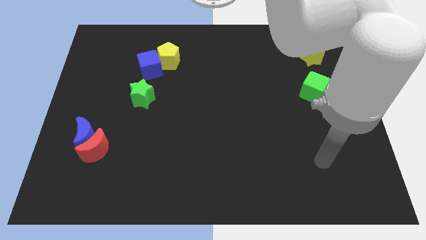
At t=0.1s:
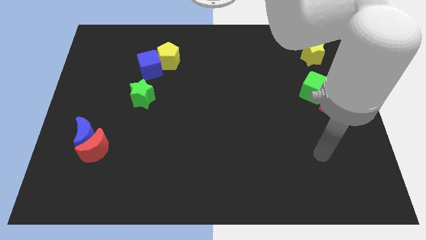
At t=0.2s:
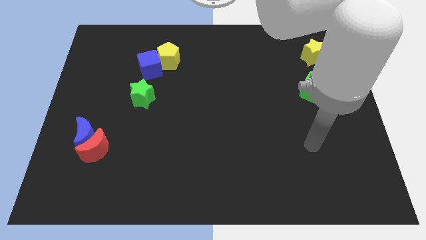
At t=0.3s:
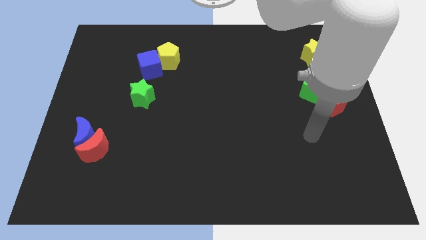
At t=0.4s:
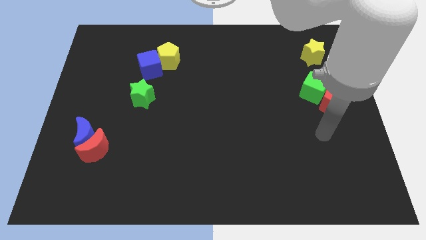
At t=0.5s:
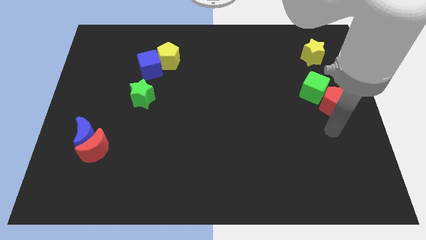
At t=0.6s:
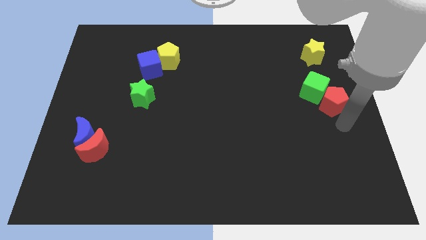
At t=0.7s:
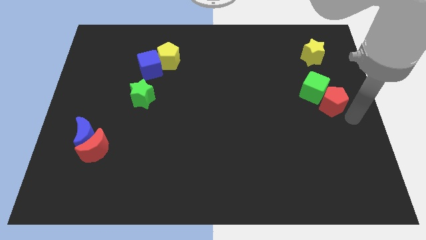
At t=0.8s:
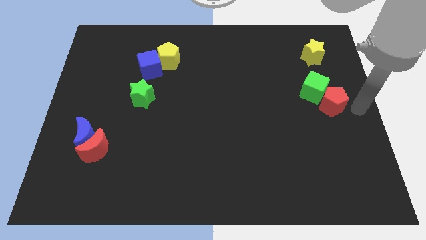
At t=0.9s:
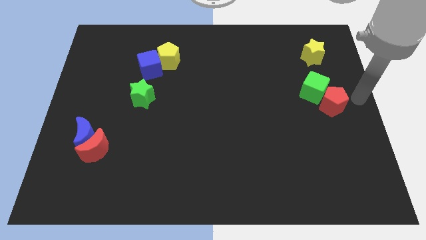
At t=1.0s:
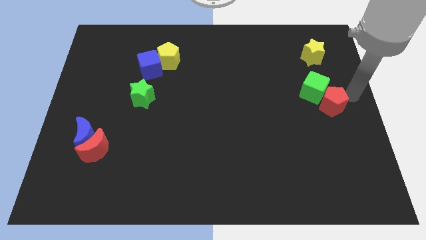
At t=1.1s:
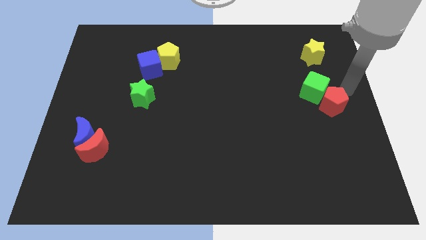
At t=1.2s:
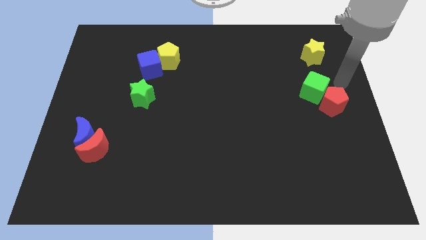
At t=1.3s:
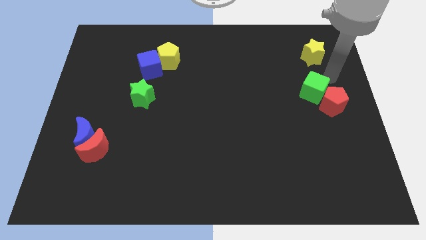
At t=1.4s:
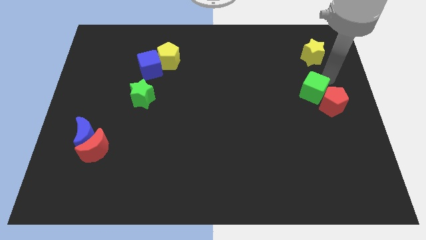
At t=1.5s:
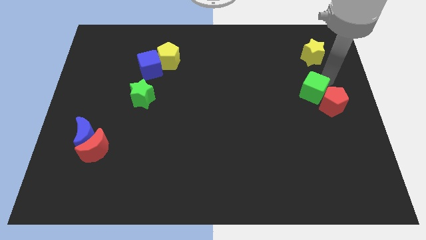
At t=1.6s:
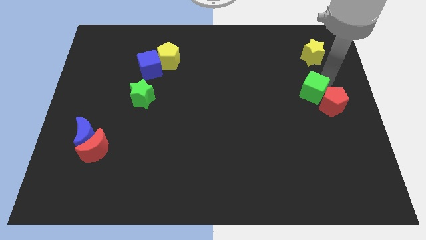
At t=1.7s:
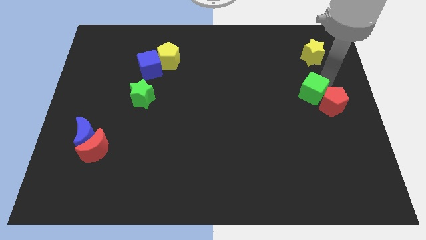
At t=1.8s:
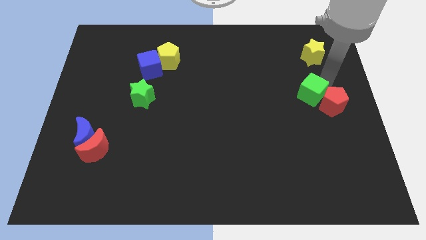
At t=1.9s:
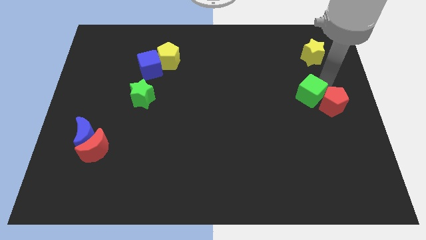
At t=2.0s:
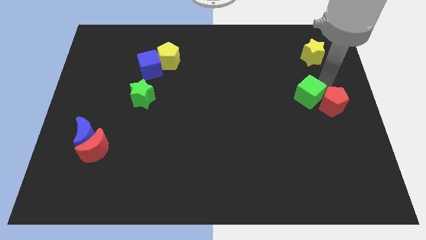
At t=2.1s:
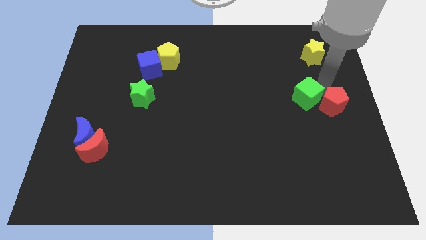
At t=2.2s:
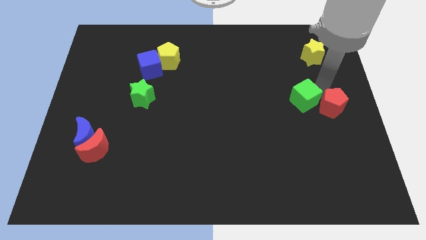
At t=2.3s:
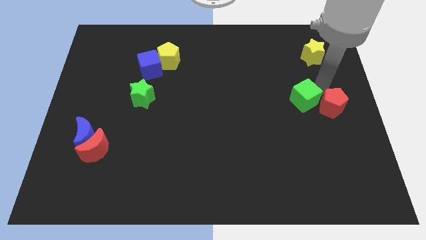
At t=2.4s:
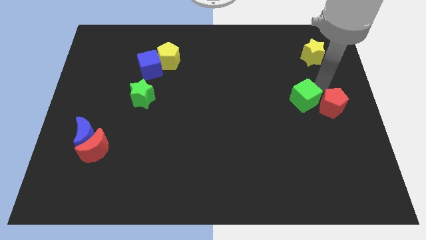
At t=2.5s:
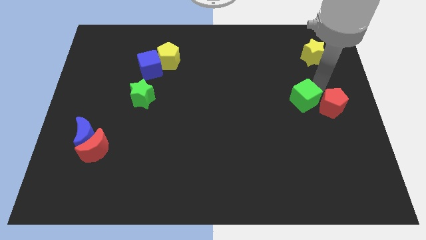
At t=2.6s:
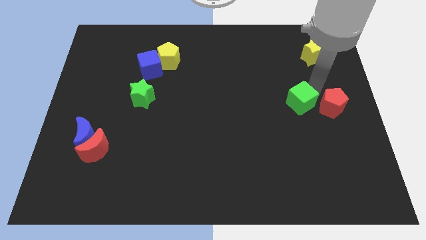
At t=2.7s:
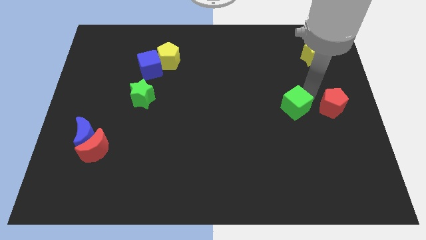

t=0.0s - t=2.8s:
slide the green cube diagonally down and left a bit

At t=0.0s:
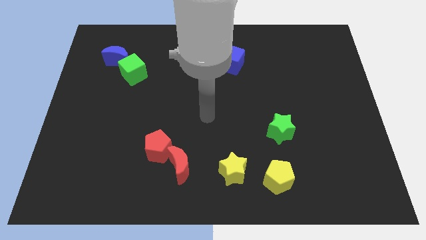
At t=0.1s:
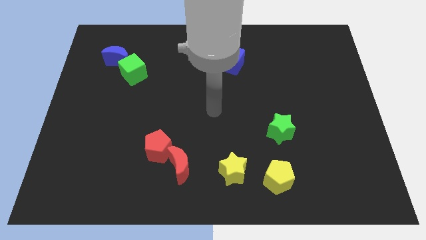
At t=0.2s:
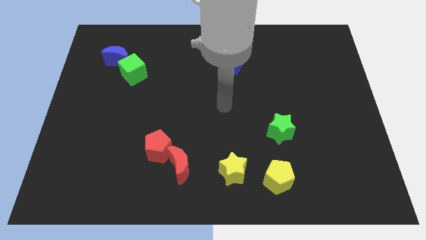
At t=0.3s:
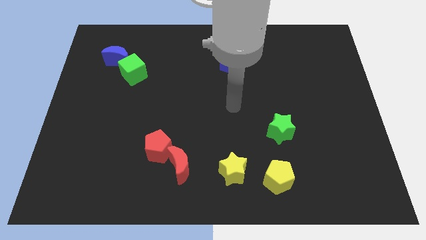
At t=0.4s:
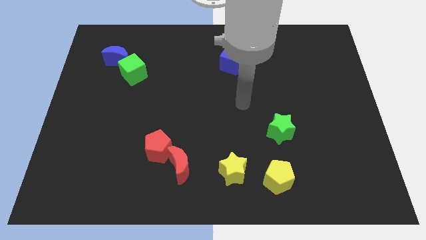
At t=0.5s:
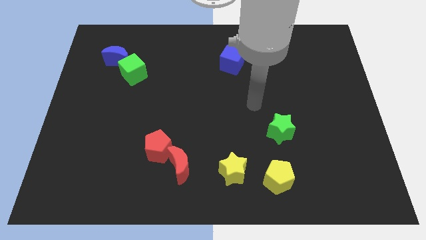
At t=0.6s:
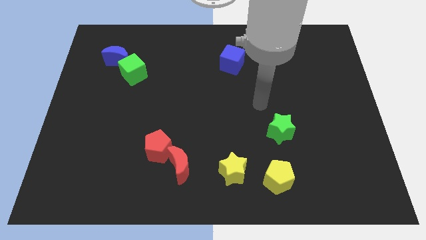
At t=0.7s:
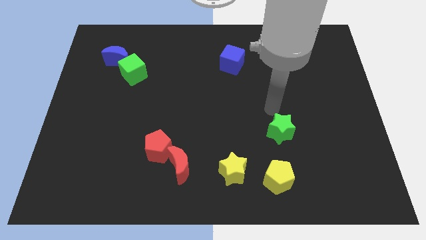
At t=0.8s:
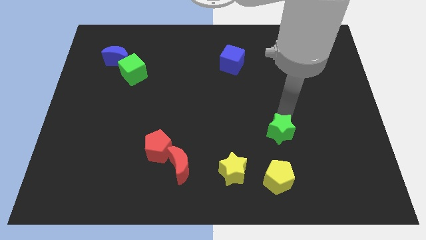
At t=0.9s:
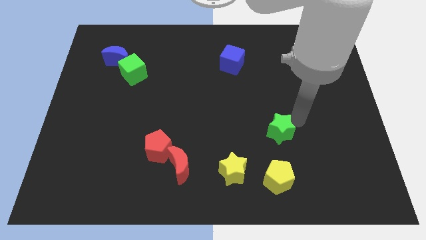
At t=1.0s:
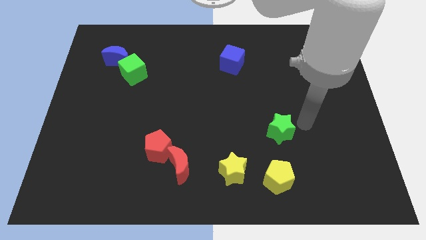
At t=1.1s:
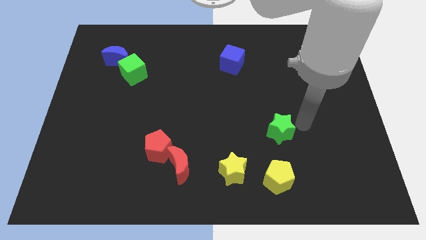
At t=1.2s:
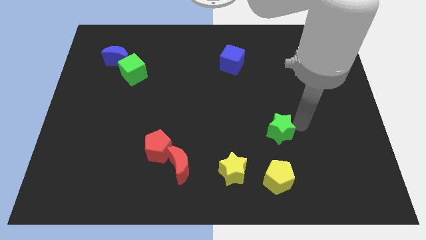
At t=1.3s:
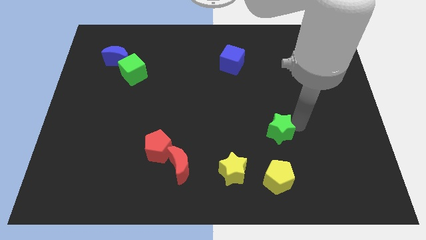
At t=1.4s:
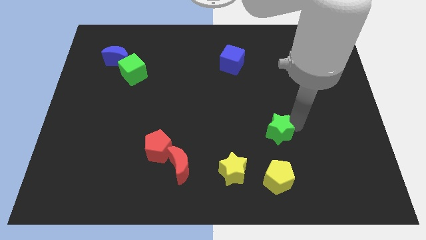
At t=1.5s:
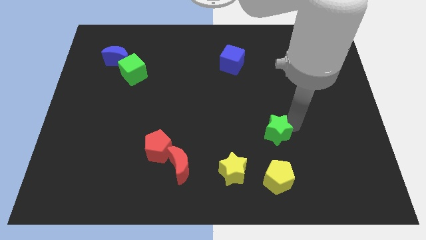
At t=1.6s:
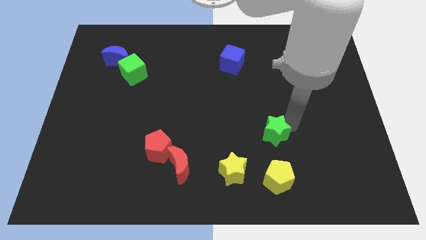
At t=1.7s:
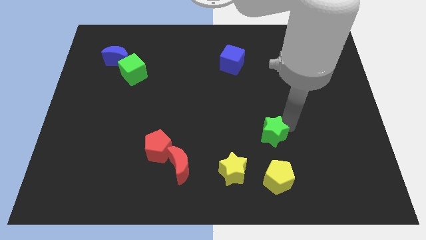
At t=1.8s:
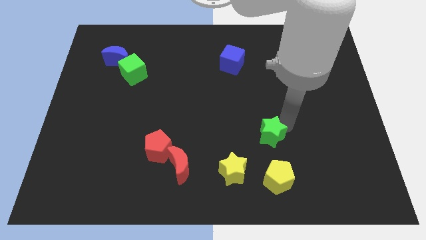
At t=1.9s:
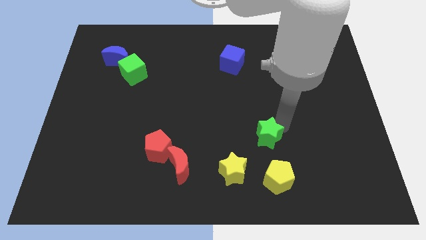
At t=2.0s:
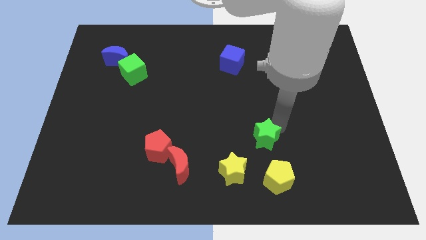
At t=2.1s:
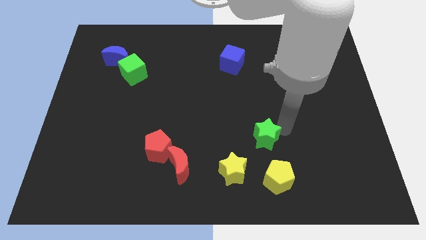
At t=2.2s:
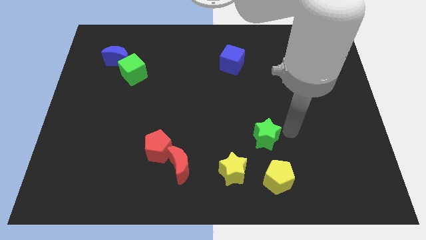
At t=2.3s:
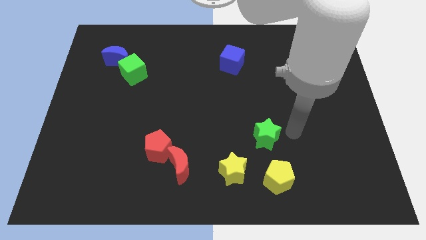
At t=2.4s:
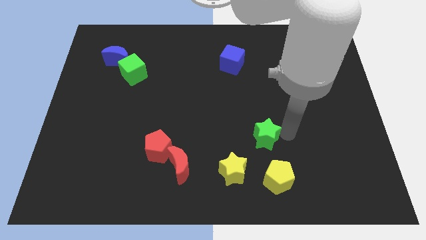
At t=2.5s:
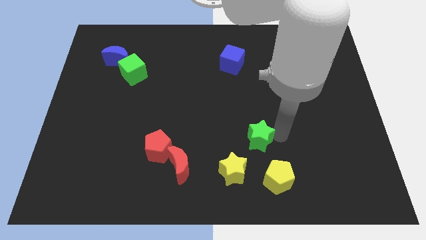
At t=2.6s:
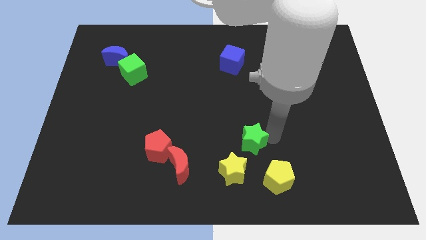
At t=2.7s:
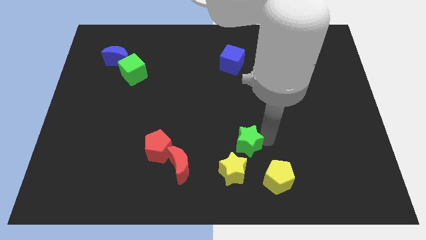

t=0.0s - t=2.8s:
slightly push the green star left

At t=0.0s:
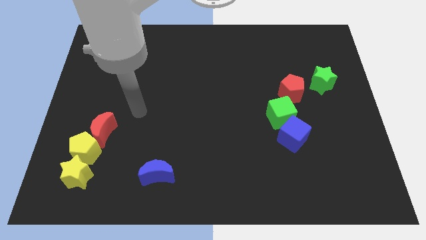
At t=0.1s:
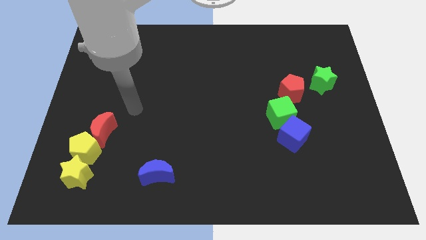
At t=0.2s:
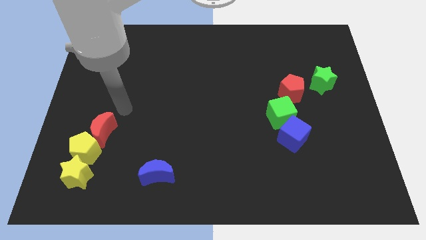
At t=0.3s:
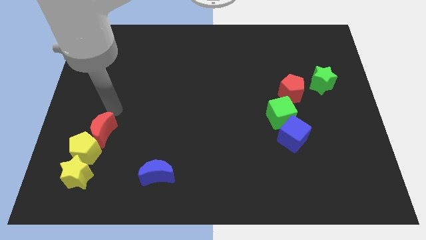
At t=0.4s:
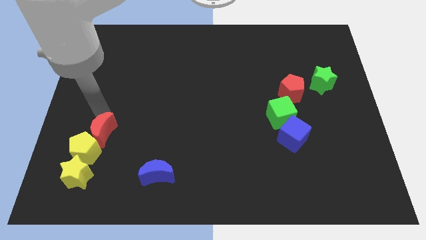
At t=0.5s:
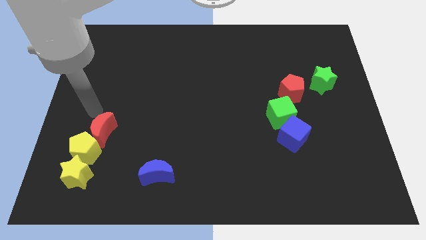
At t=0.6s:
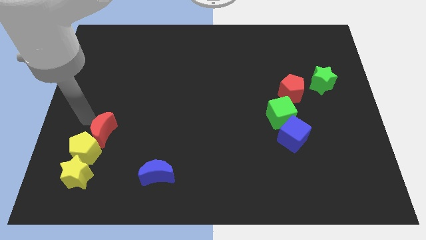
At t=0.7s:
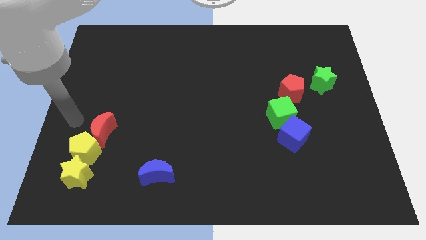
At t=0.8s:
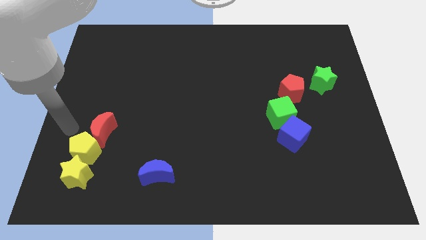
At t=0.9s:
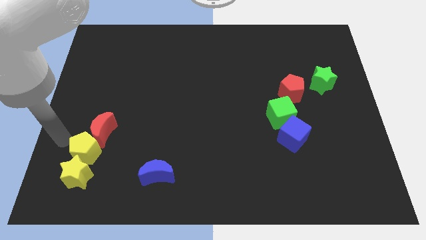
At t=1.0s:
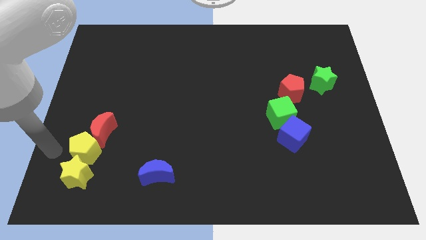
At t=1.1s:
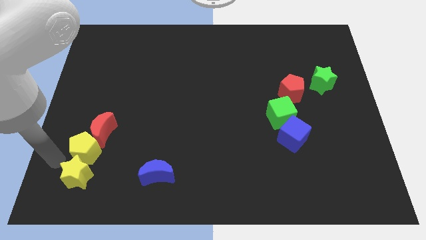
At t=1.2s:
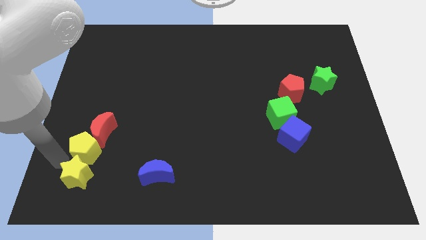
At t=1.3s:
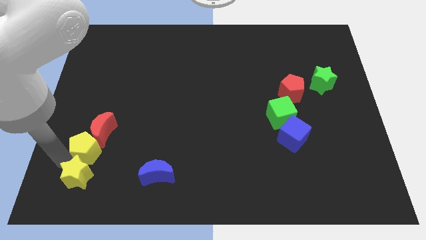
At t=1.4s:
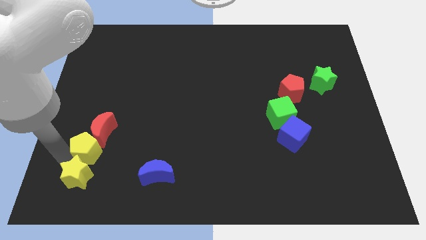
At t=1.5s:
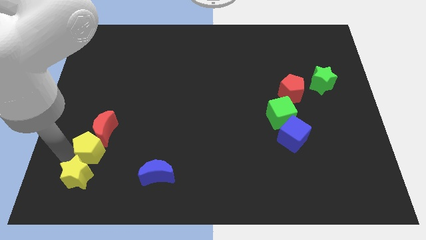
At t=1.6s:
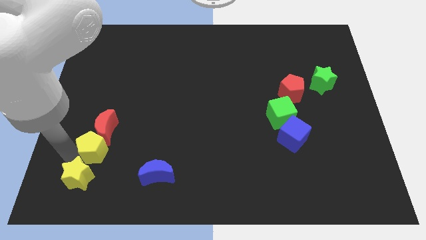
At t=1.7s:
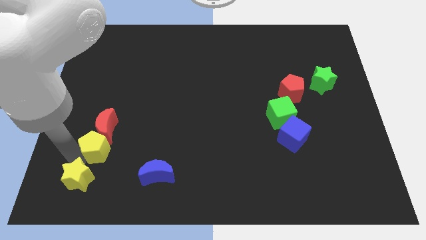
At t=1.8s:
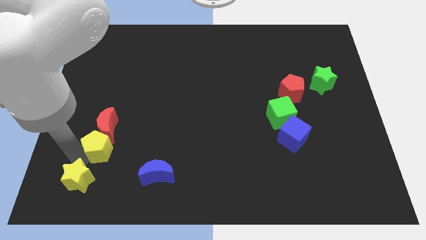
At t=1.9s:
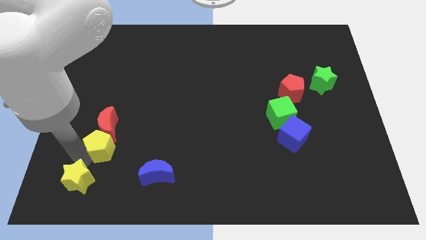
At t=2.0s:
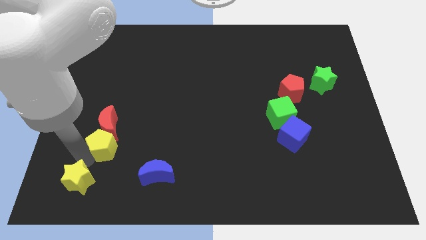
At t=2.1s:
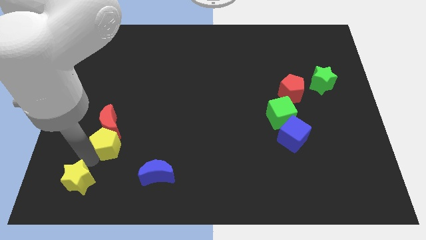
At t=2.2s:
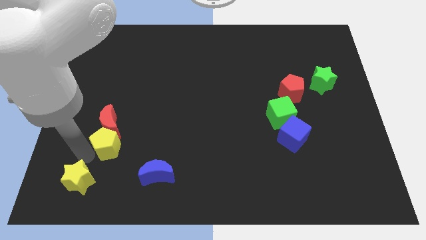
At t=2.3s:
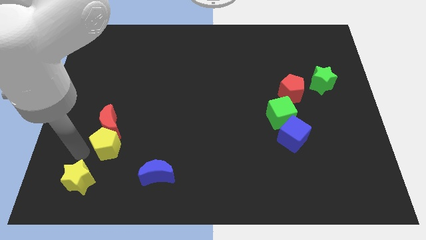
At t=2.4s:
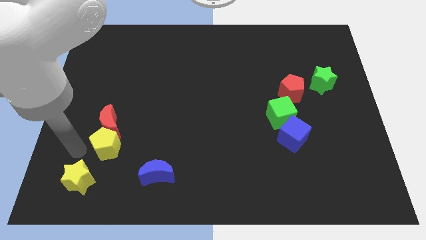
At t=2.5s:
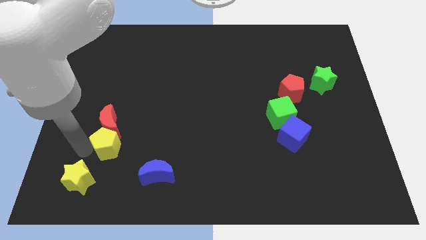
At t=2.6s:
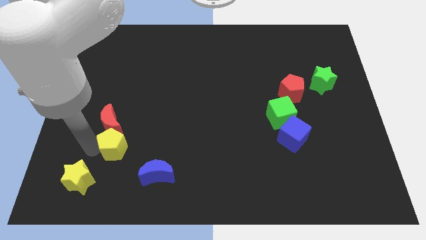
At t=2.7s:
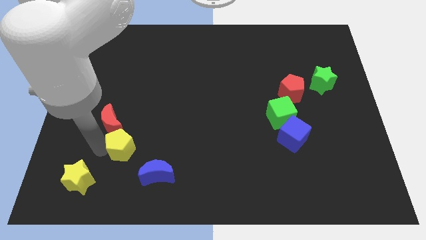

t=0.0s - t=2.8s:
slide the yellow pentagon to the right a little
